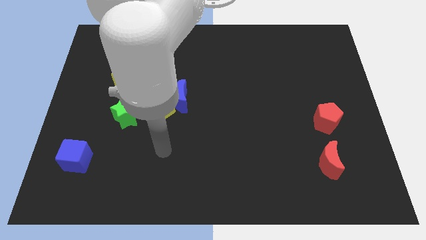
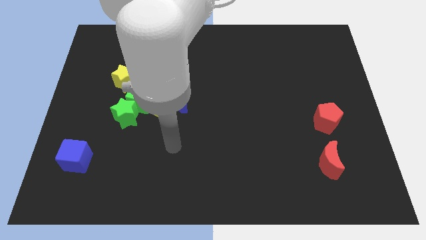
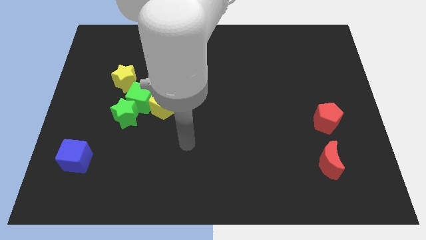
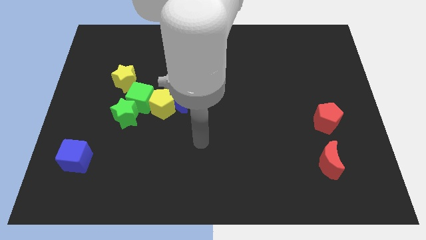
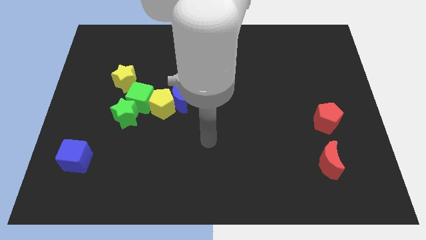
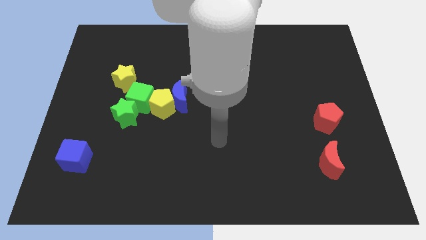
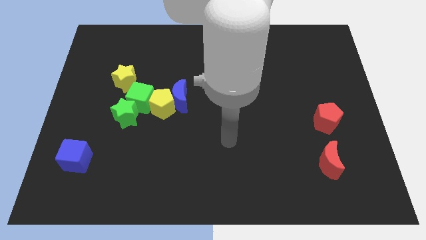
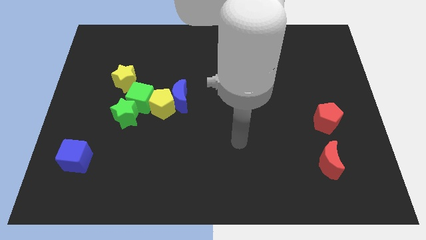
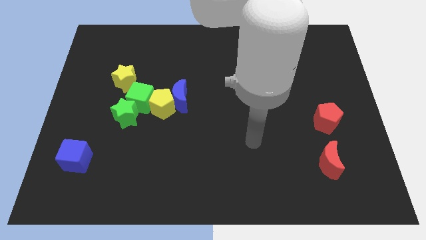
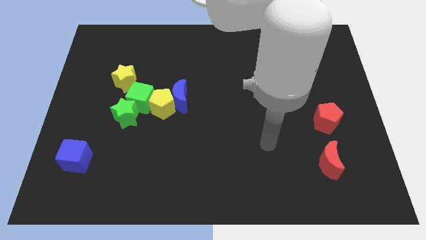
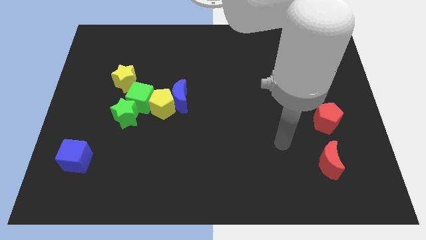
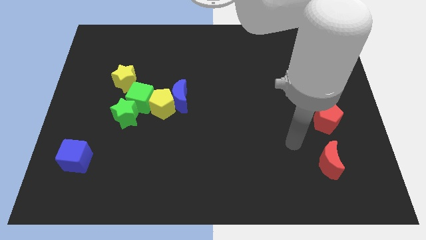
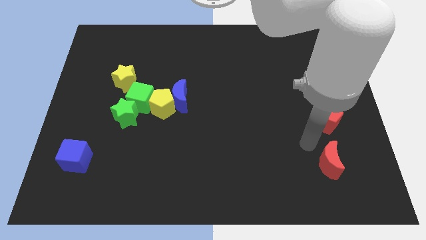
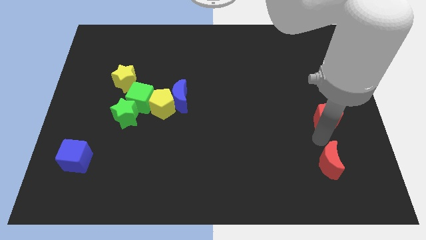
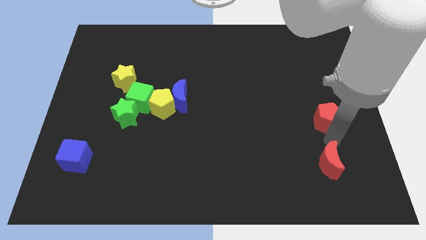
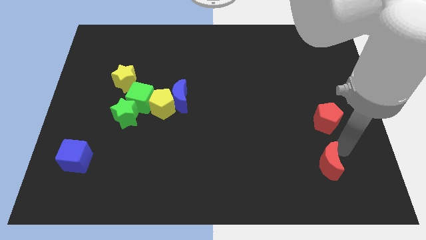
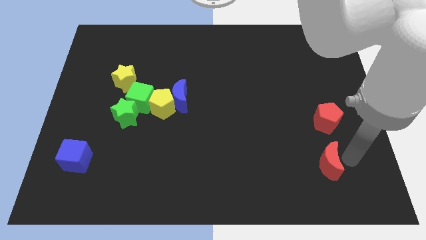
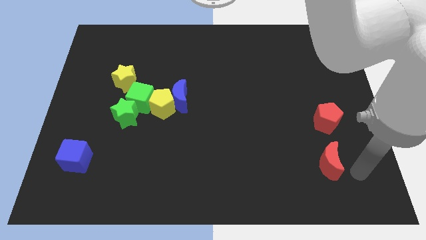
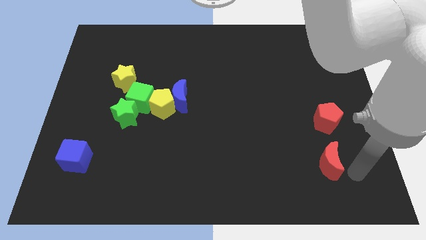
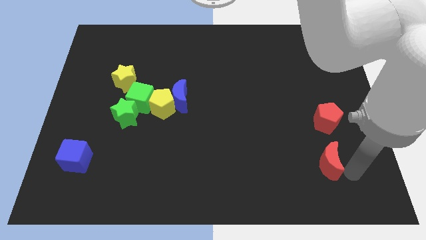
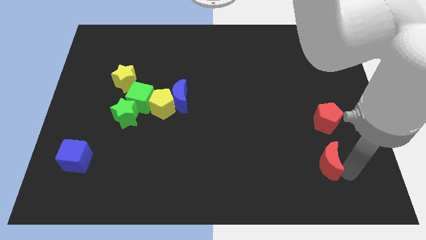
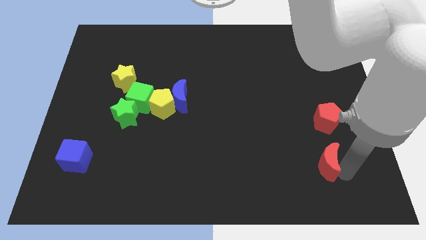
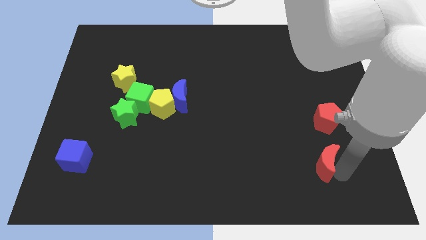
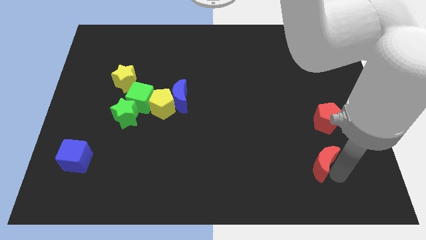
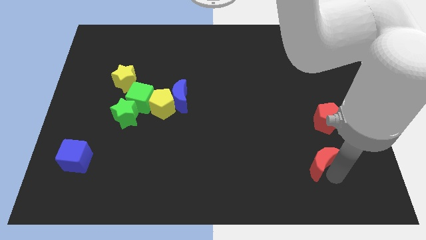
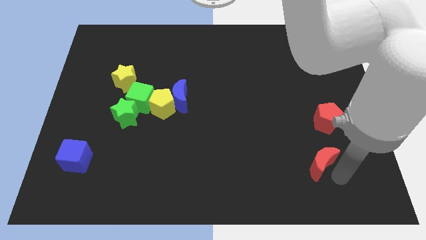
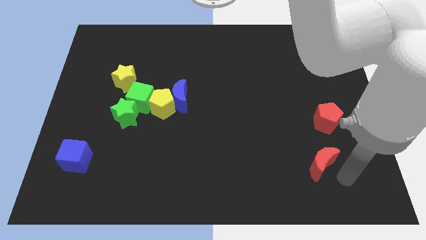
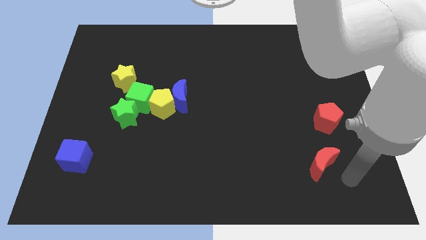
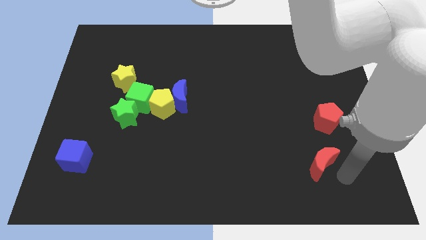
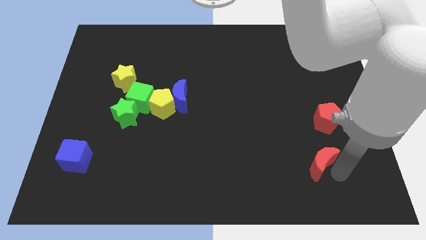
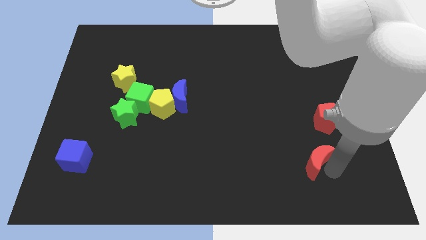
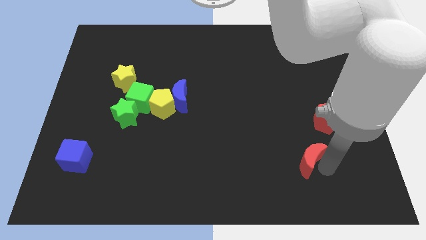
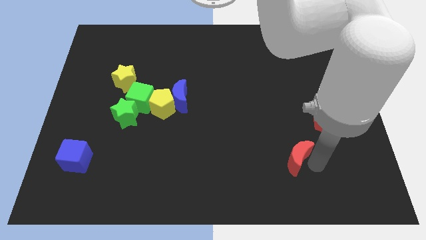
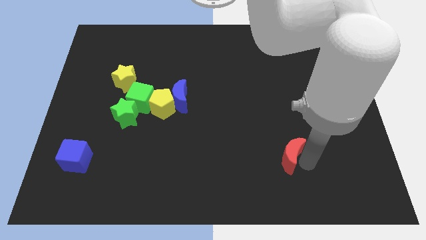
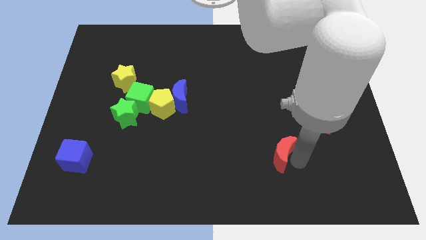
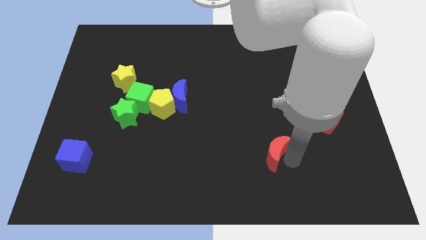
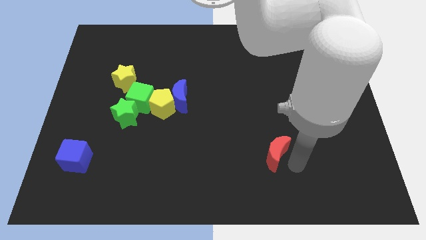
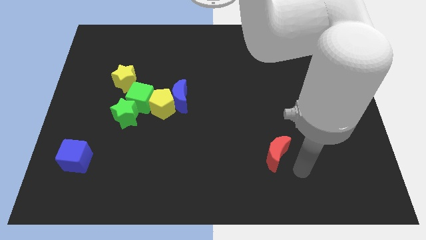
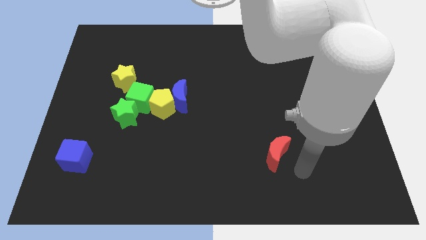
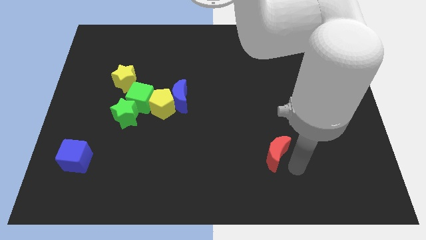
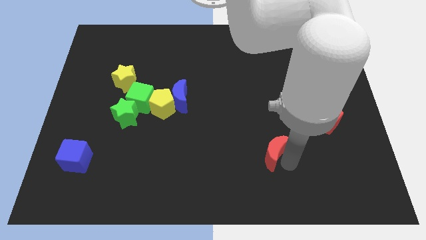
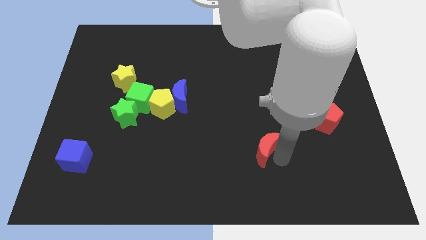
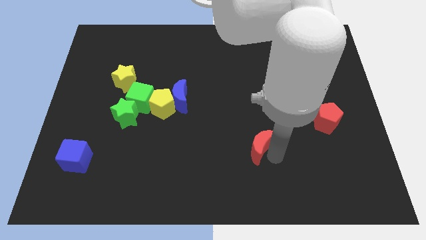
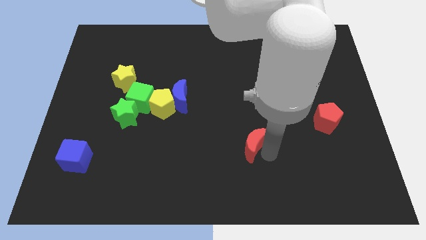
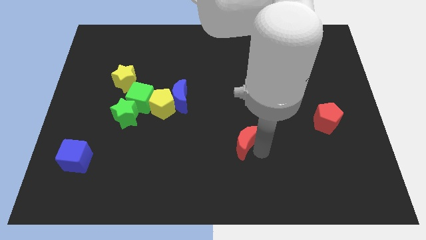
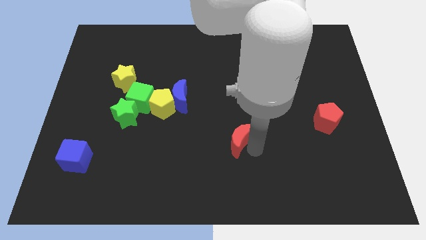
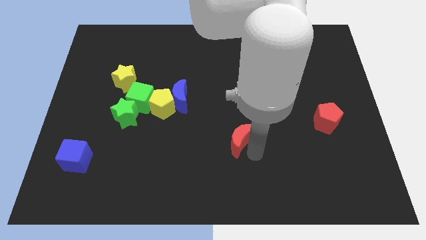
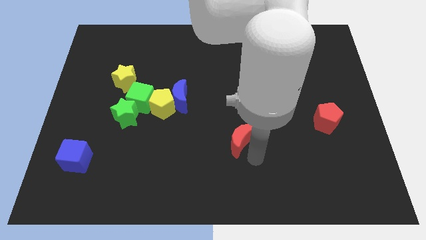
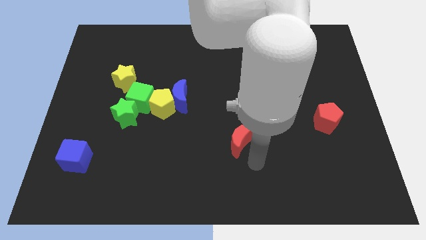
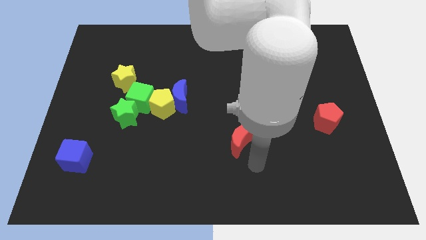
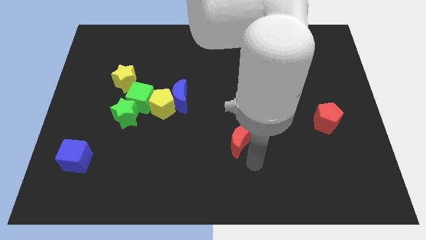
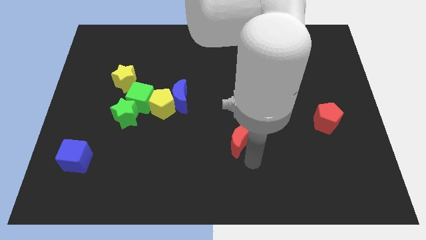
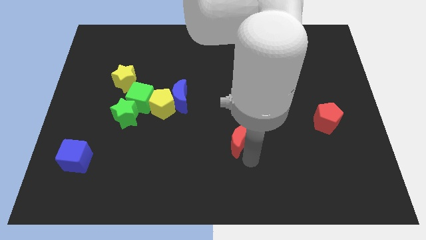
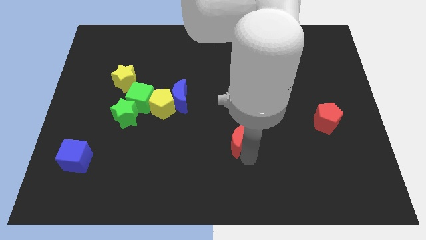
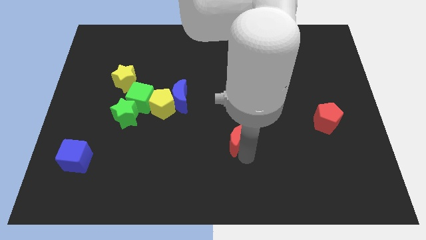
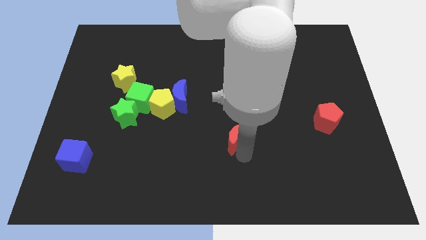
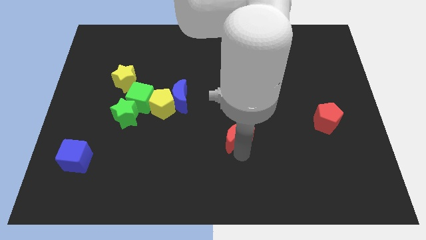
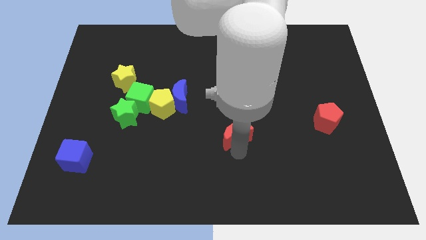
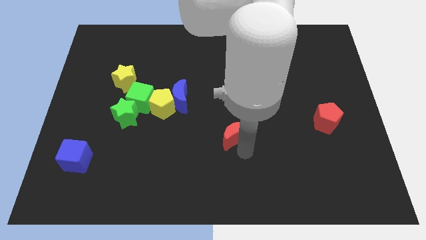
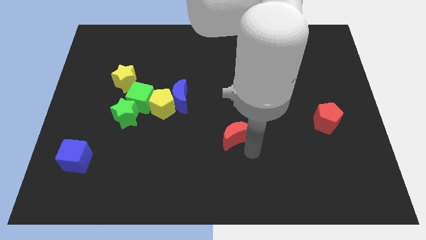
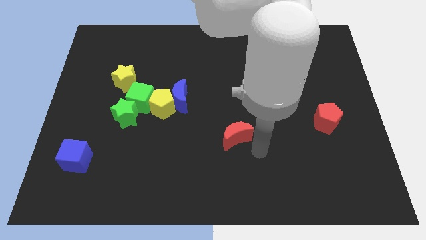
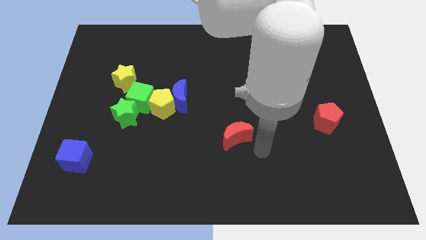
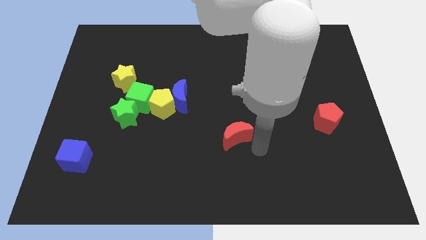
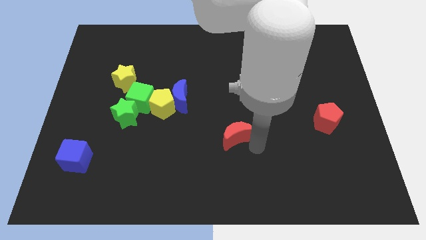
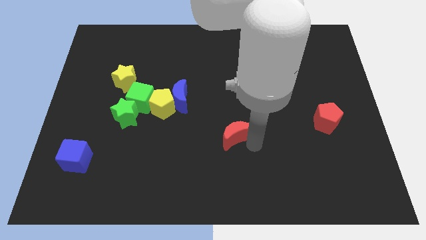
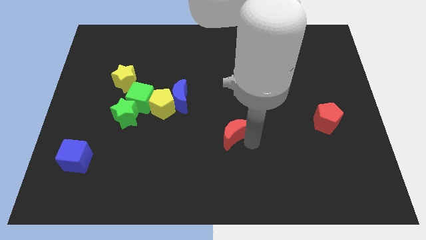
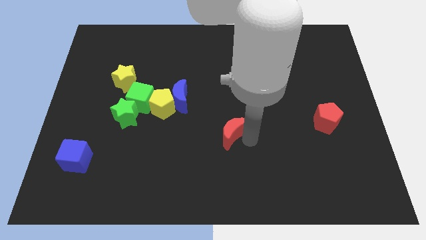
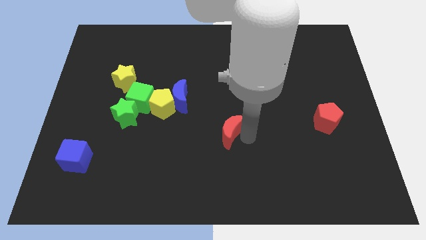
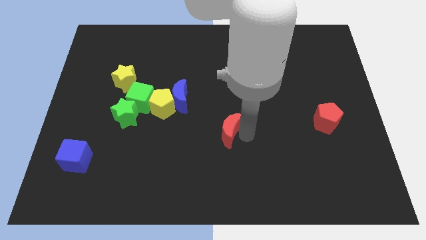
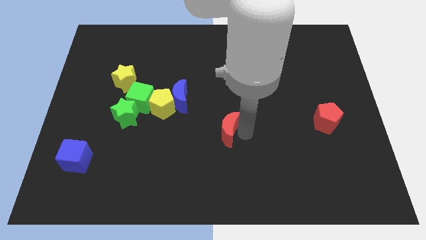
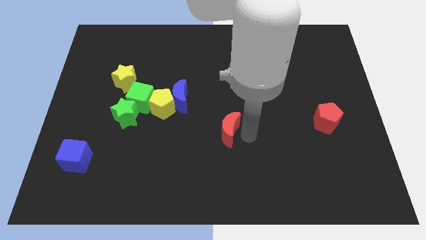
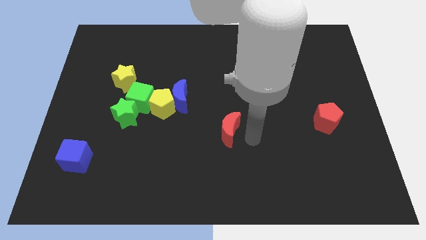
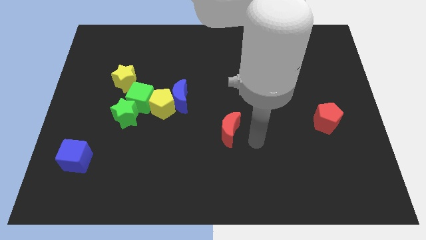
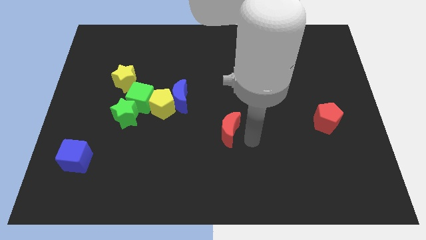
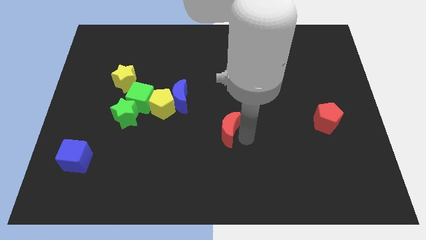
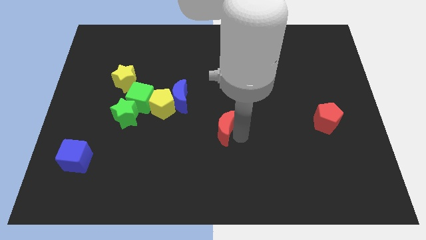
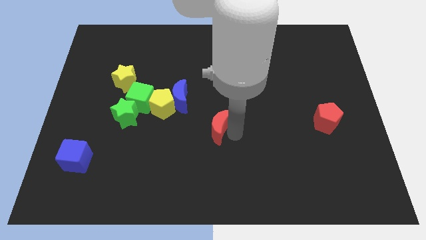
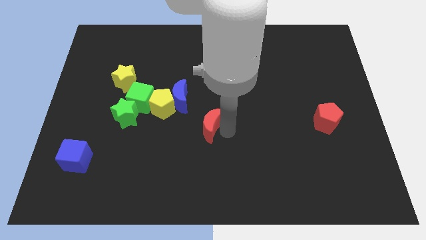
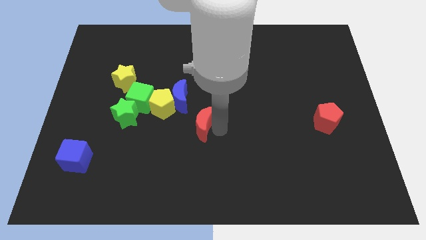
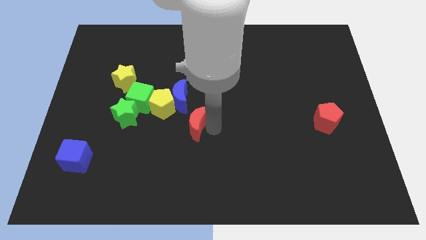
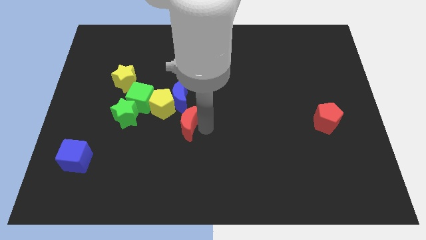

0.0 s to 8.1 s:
move the red moon to the right of the green star
